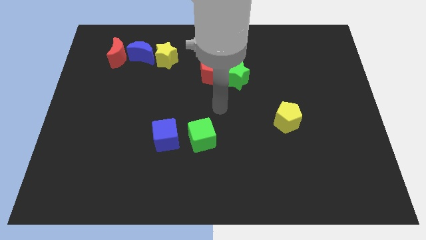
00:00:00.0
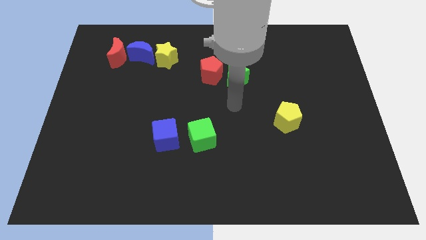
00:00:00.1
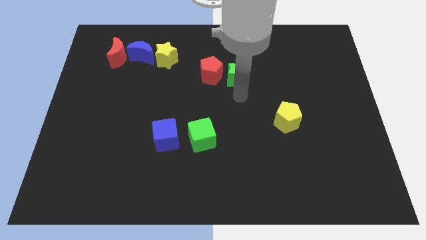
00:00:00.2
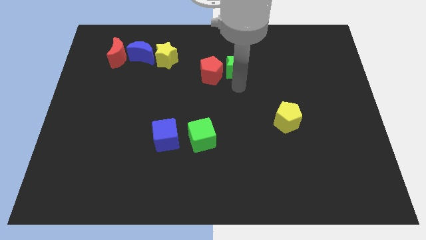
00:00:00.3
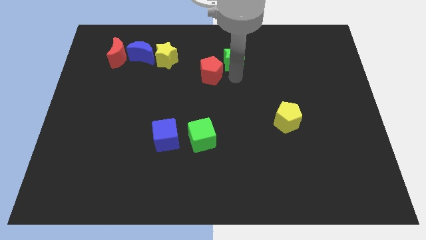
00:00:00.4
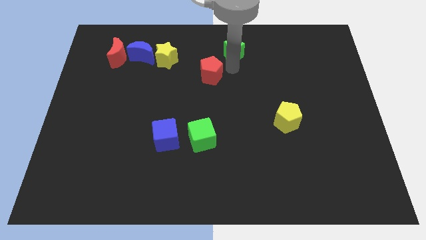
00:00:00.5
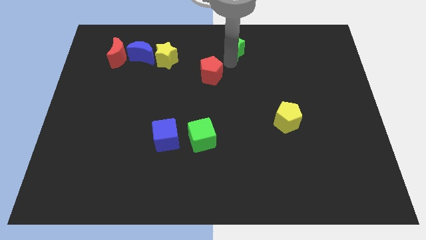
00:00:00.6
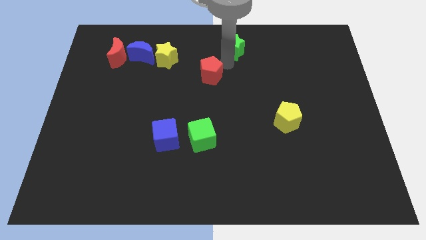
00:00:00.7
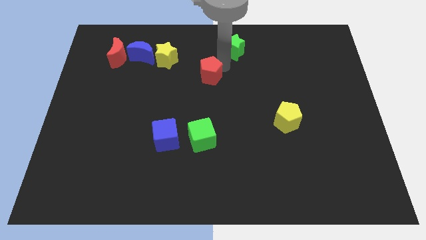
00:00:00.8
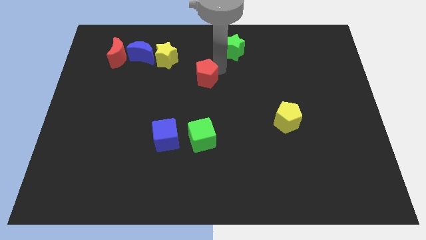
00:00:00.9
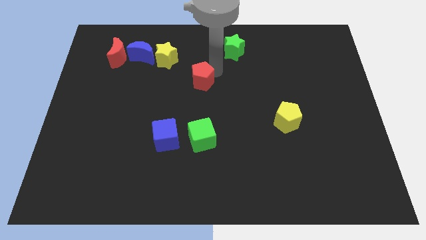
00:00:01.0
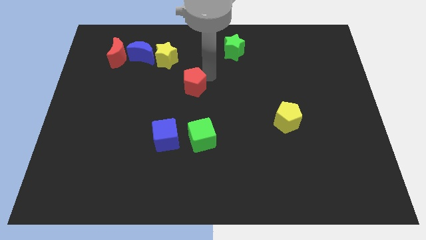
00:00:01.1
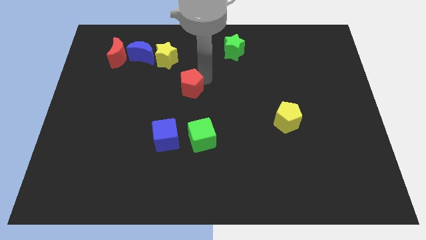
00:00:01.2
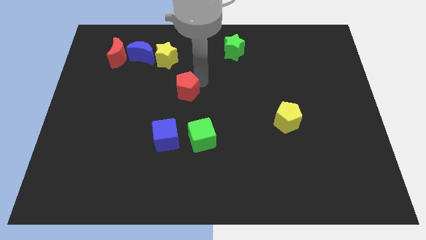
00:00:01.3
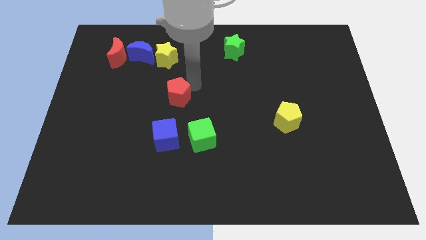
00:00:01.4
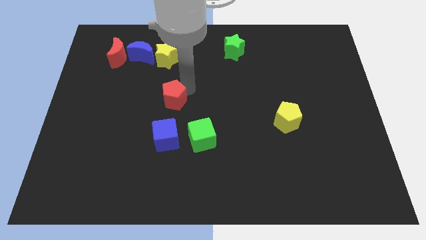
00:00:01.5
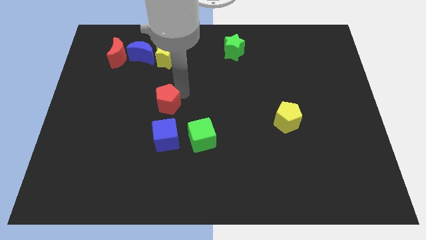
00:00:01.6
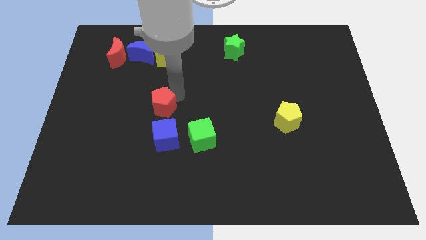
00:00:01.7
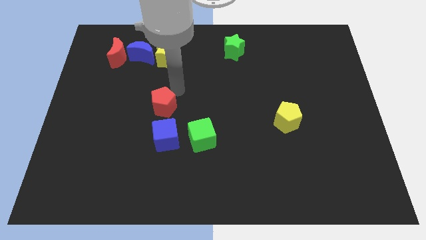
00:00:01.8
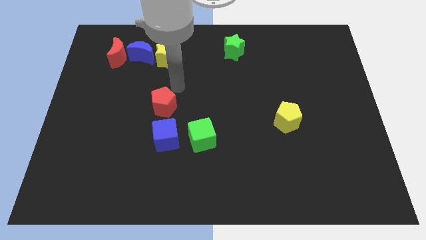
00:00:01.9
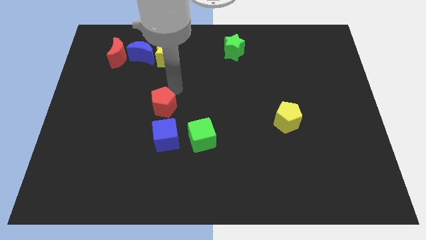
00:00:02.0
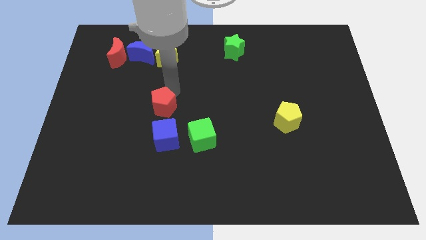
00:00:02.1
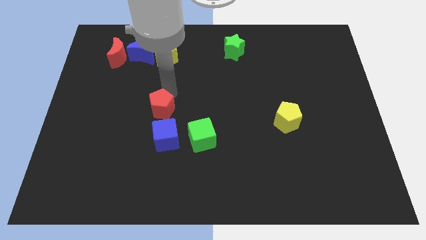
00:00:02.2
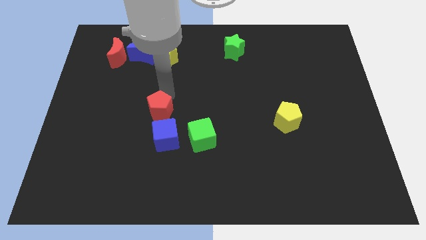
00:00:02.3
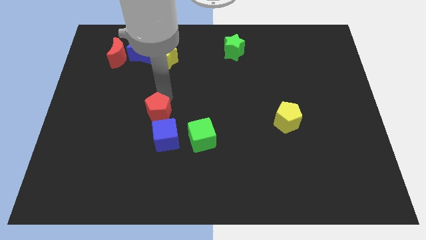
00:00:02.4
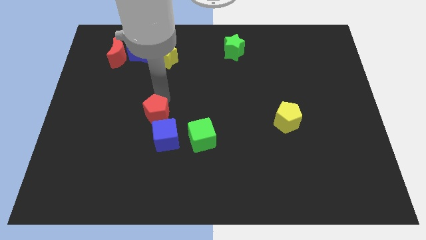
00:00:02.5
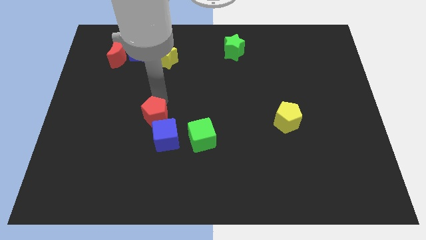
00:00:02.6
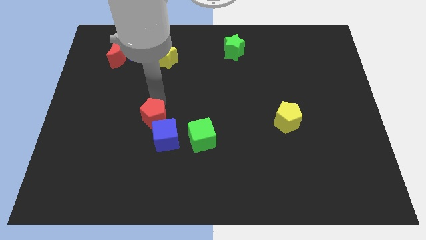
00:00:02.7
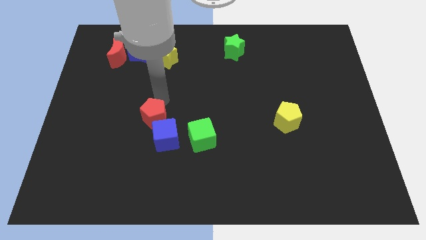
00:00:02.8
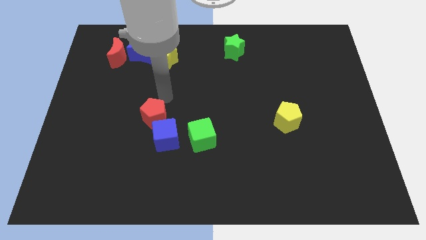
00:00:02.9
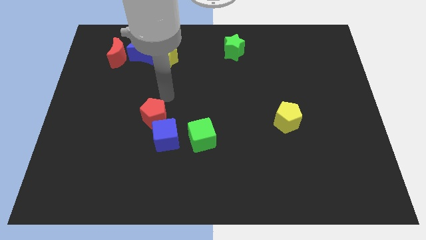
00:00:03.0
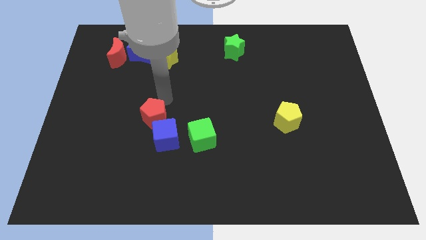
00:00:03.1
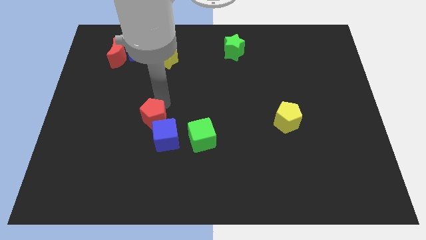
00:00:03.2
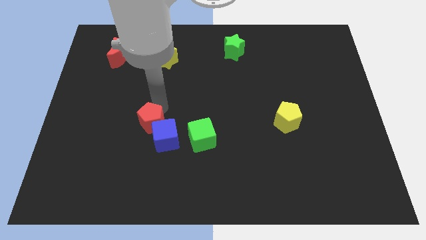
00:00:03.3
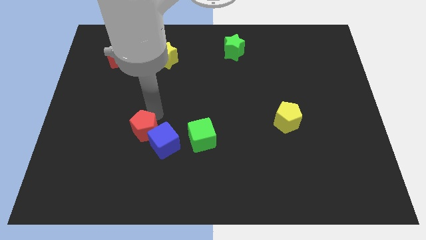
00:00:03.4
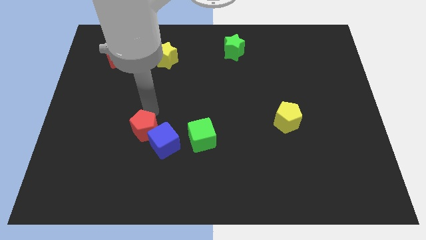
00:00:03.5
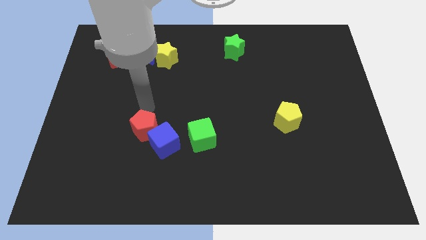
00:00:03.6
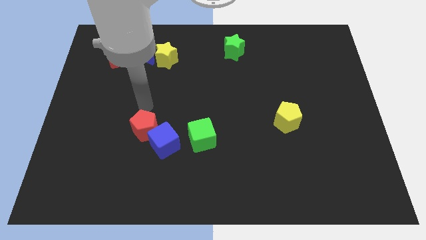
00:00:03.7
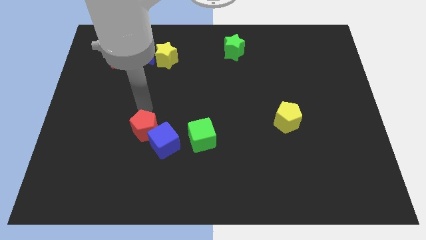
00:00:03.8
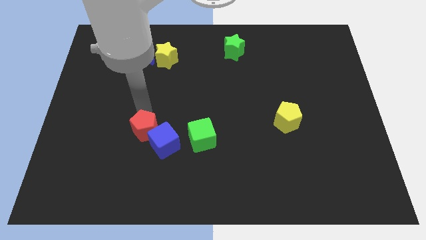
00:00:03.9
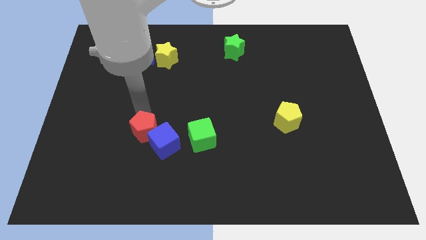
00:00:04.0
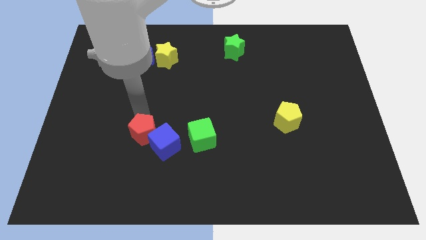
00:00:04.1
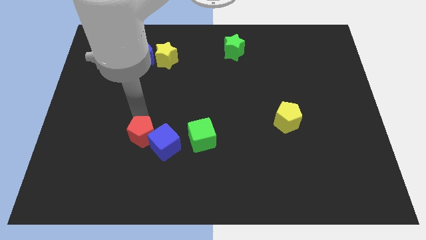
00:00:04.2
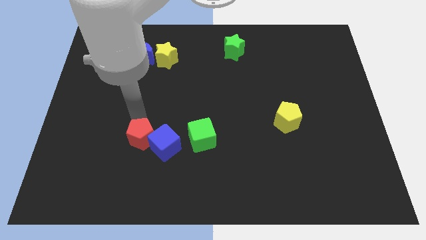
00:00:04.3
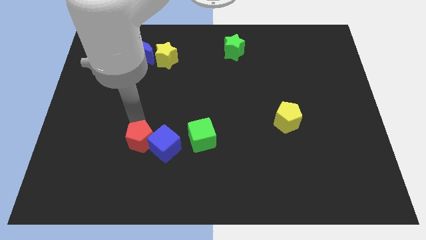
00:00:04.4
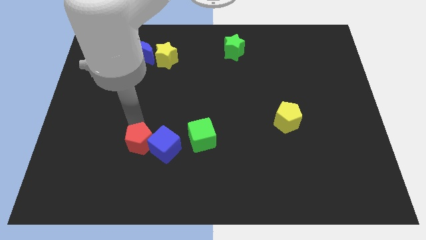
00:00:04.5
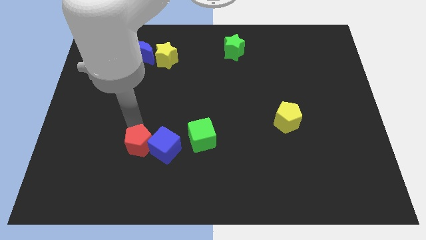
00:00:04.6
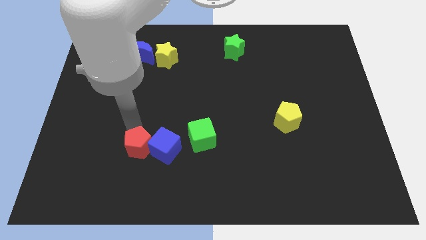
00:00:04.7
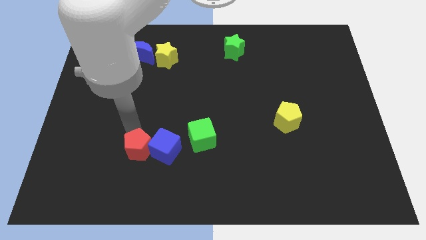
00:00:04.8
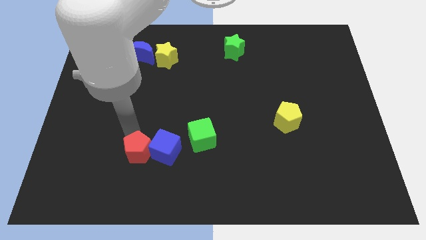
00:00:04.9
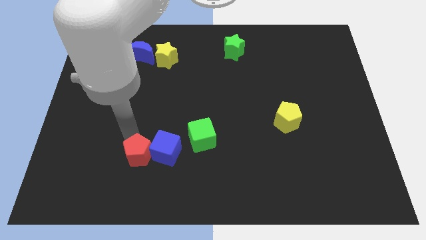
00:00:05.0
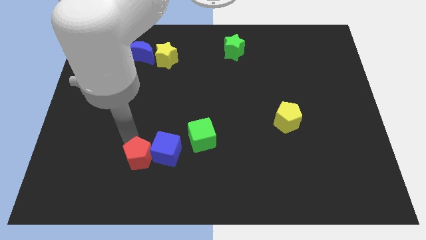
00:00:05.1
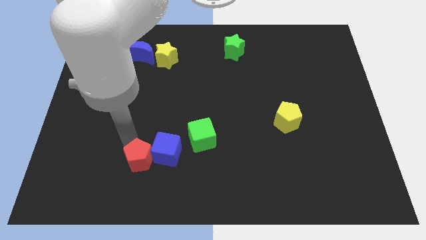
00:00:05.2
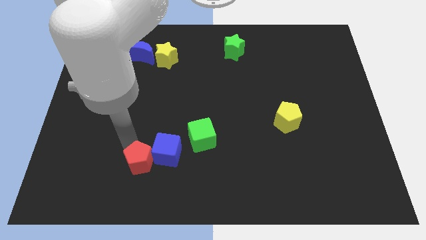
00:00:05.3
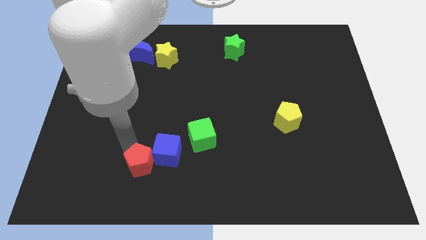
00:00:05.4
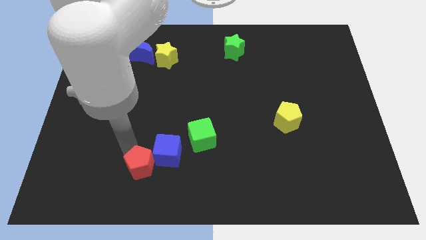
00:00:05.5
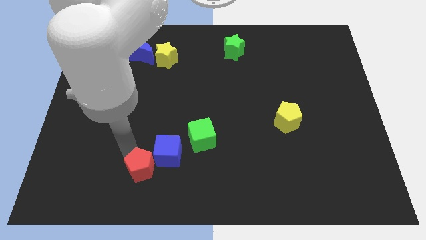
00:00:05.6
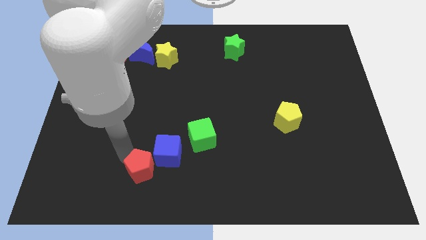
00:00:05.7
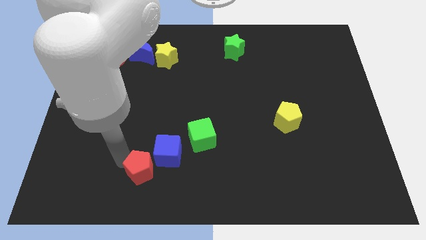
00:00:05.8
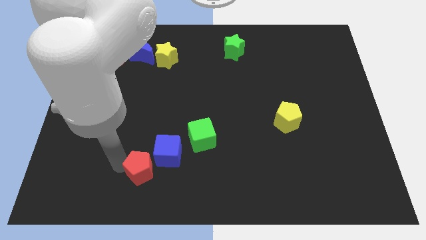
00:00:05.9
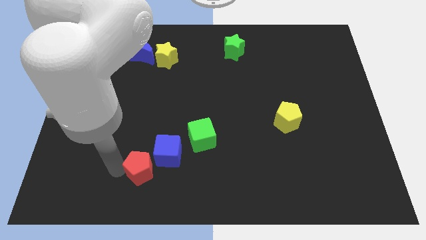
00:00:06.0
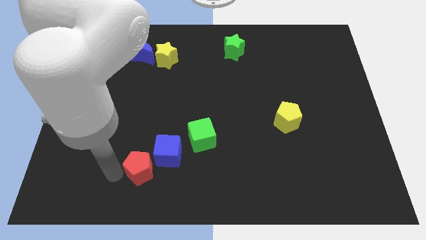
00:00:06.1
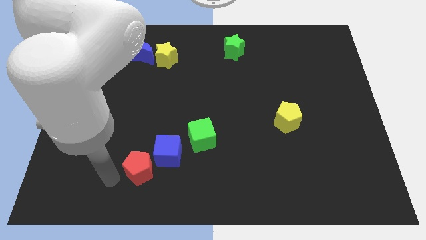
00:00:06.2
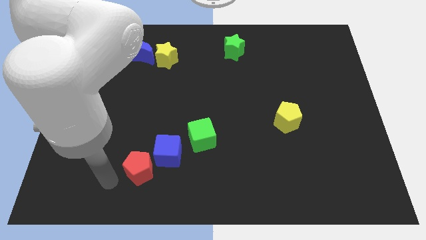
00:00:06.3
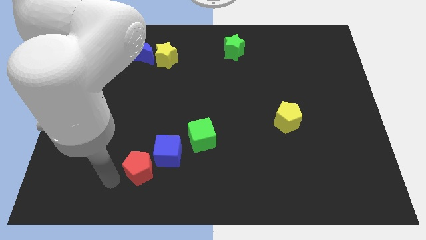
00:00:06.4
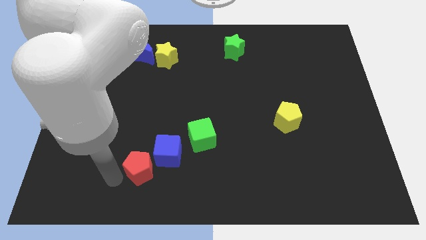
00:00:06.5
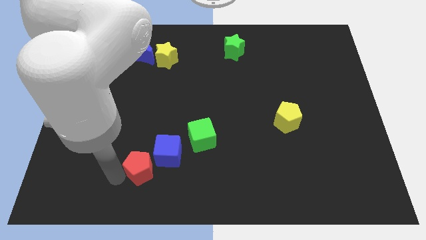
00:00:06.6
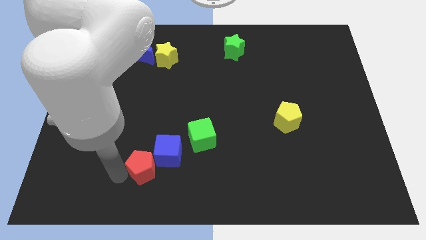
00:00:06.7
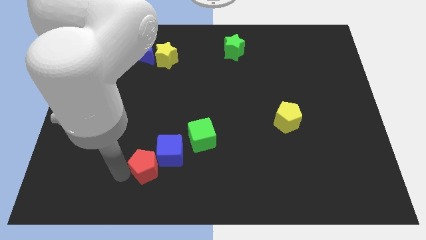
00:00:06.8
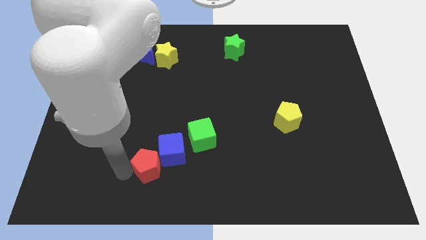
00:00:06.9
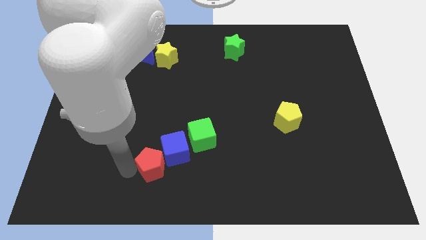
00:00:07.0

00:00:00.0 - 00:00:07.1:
push the red pentagon to the bottom side of the blue cube
